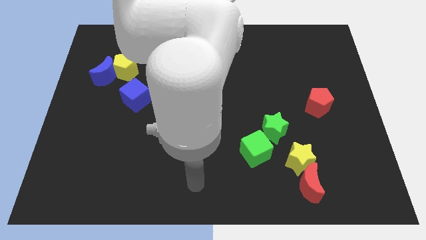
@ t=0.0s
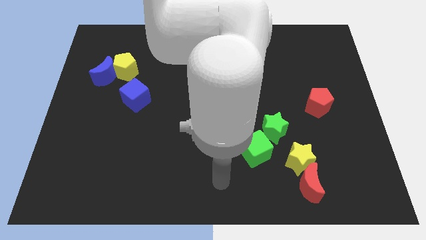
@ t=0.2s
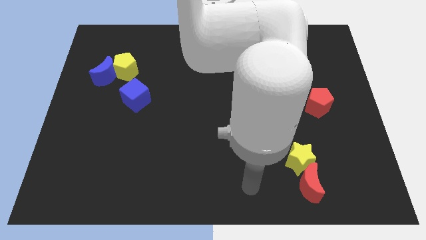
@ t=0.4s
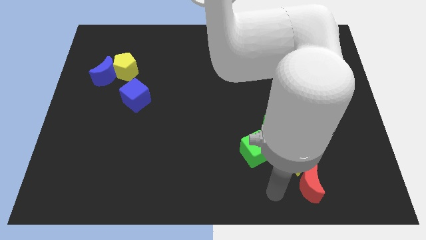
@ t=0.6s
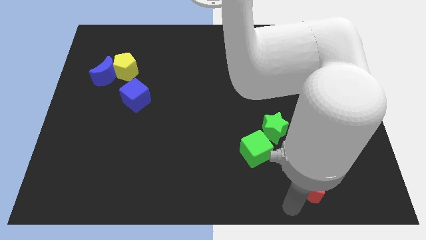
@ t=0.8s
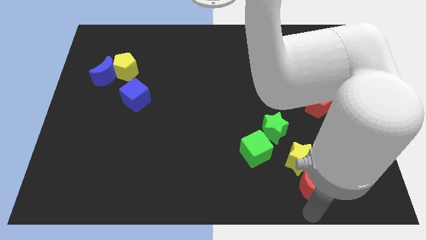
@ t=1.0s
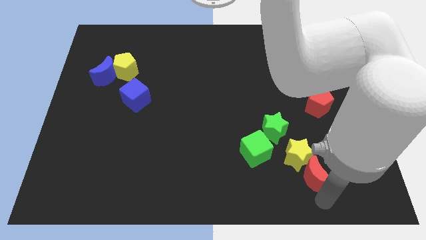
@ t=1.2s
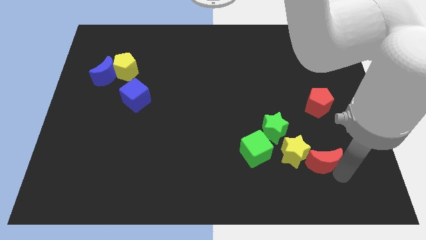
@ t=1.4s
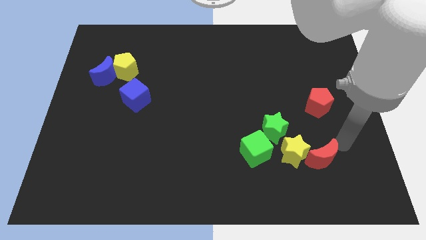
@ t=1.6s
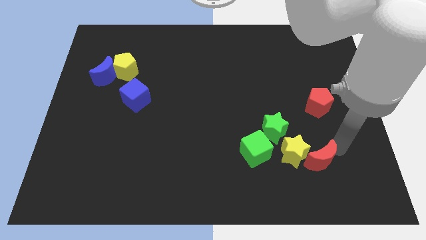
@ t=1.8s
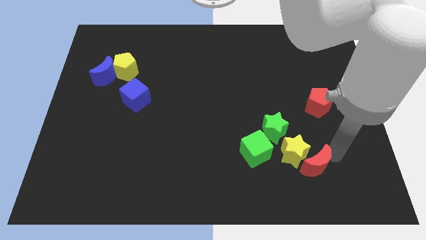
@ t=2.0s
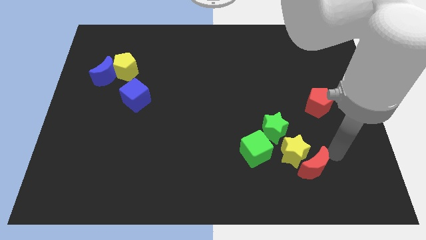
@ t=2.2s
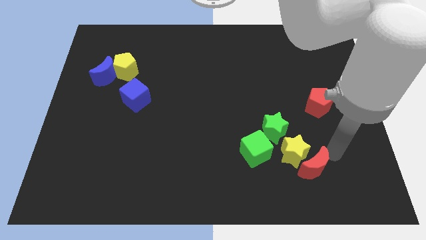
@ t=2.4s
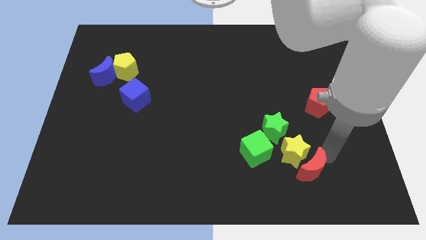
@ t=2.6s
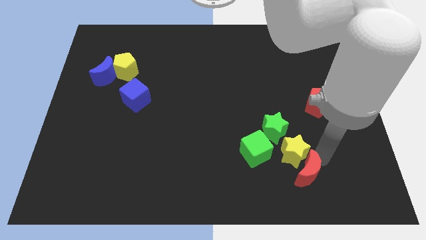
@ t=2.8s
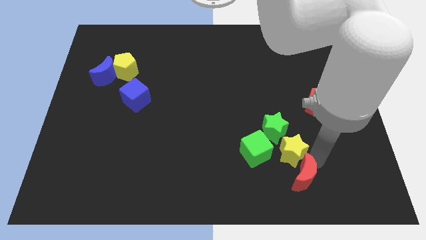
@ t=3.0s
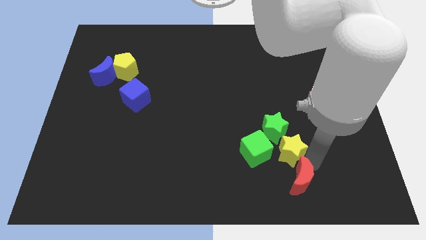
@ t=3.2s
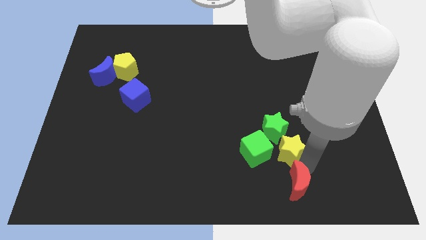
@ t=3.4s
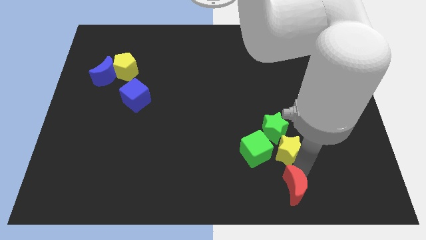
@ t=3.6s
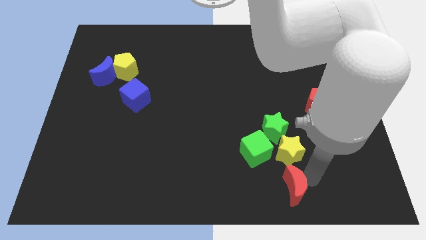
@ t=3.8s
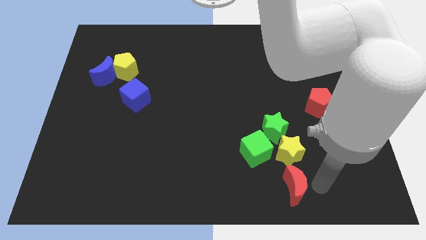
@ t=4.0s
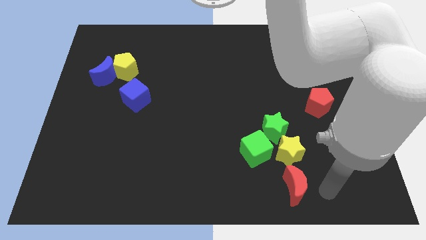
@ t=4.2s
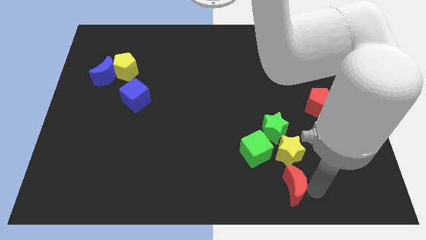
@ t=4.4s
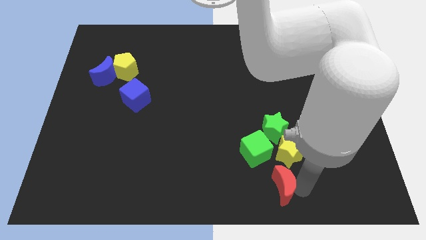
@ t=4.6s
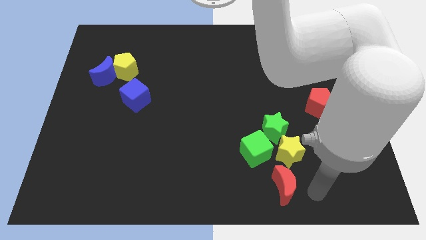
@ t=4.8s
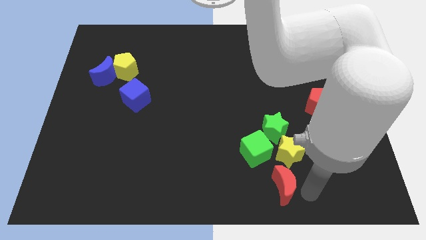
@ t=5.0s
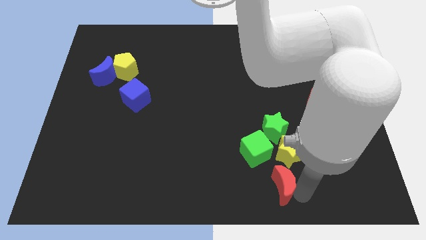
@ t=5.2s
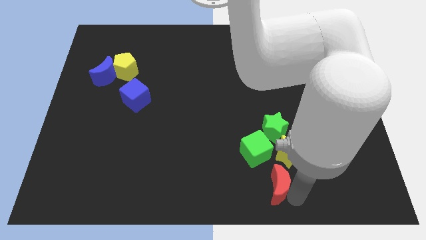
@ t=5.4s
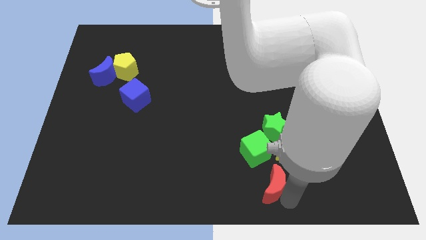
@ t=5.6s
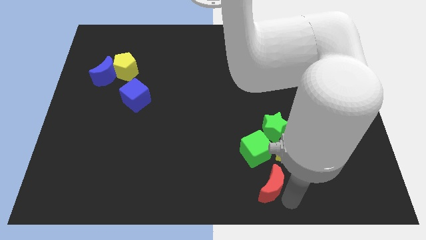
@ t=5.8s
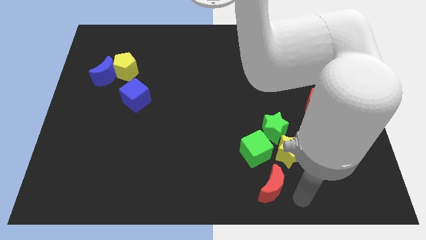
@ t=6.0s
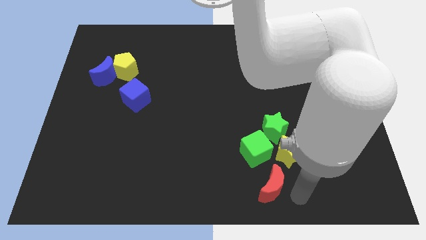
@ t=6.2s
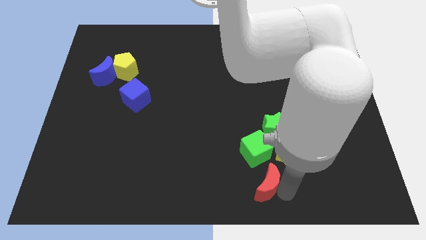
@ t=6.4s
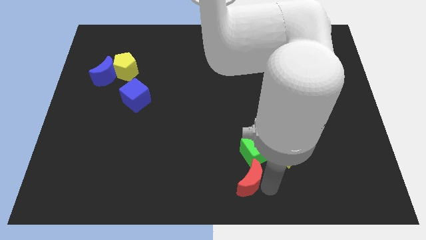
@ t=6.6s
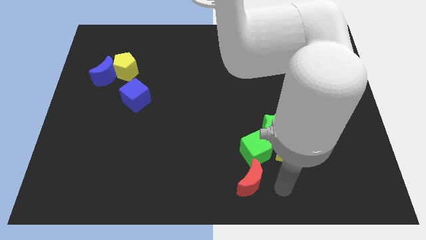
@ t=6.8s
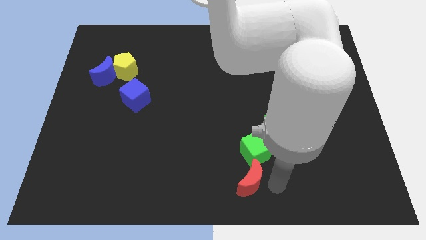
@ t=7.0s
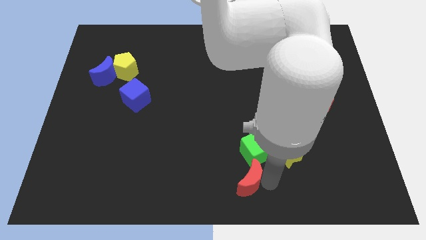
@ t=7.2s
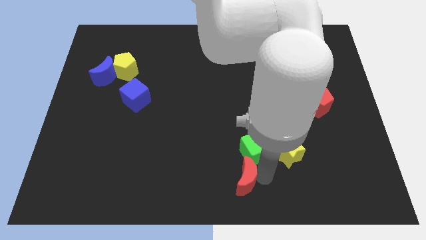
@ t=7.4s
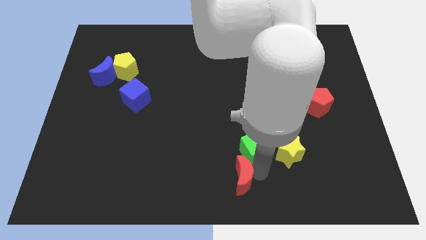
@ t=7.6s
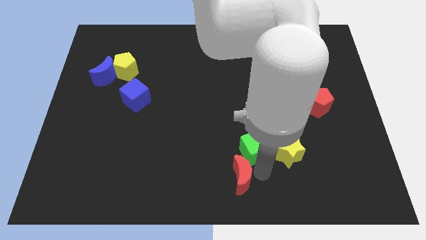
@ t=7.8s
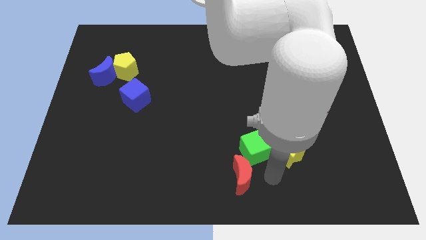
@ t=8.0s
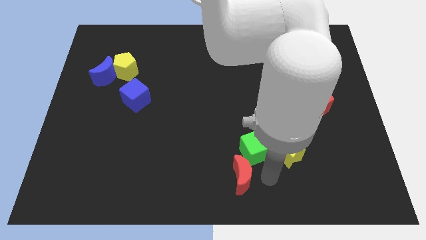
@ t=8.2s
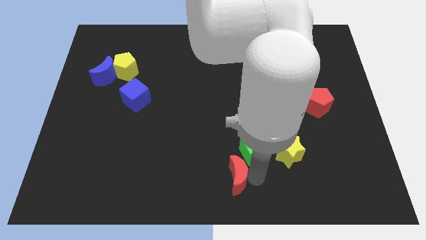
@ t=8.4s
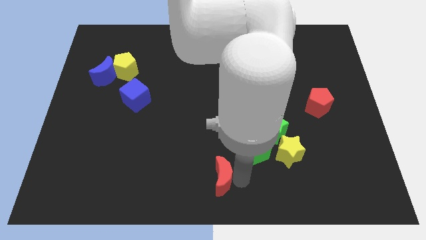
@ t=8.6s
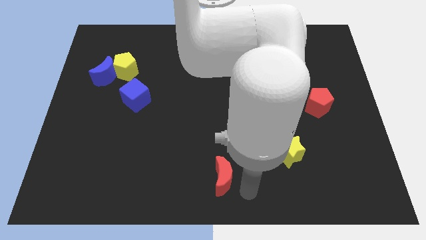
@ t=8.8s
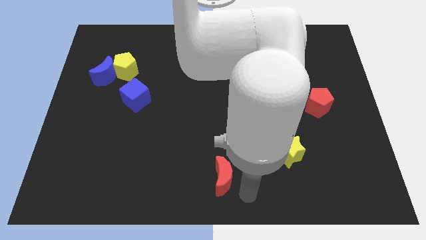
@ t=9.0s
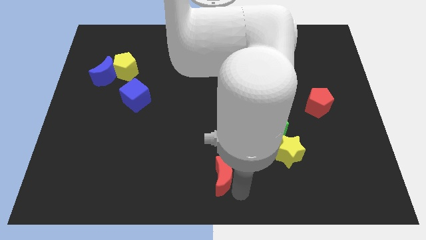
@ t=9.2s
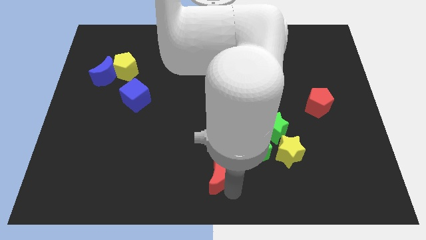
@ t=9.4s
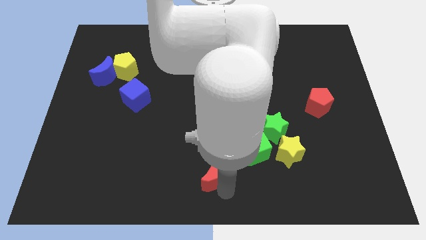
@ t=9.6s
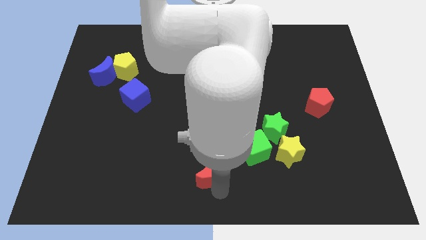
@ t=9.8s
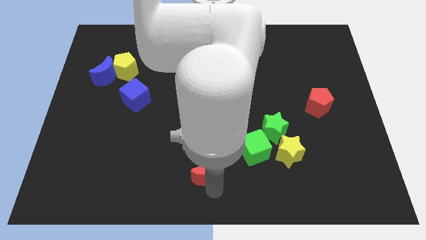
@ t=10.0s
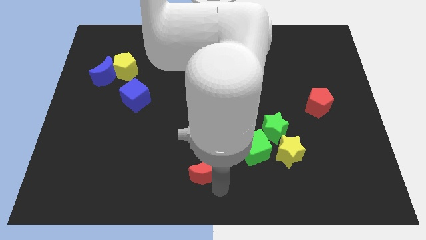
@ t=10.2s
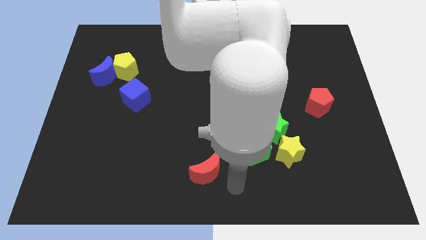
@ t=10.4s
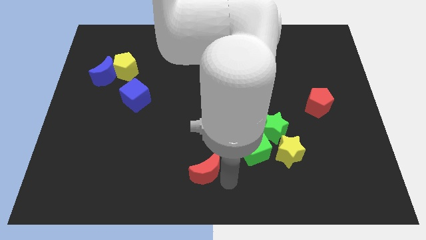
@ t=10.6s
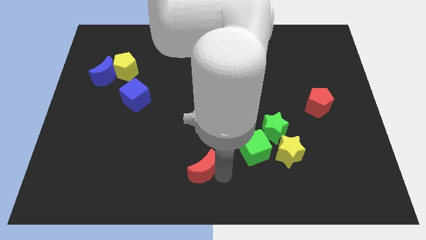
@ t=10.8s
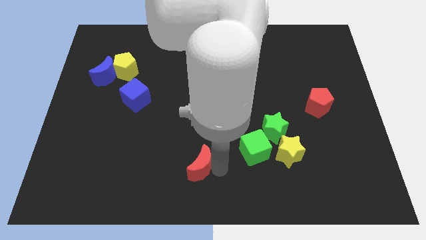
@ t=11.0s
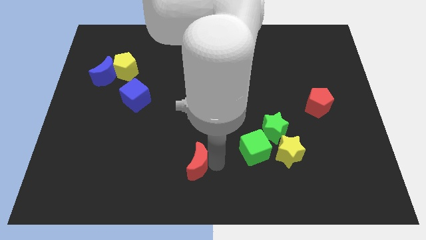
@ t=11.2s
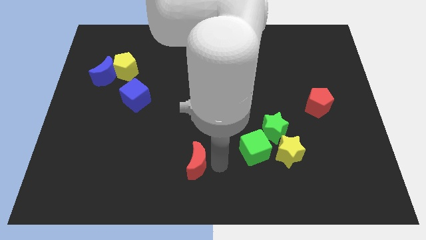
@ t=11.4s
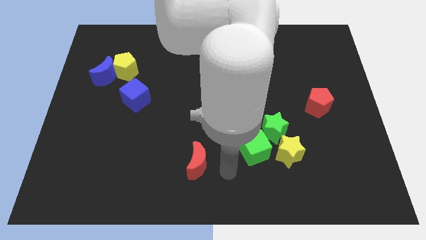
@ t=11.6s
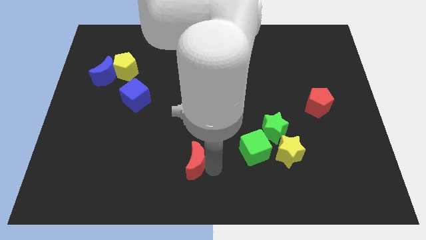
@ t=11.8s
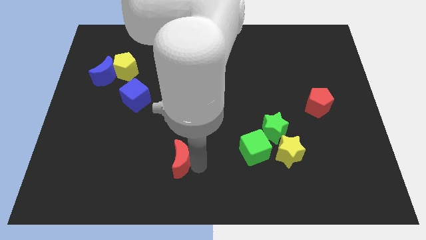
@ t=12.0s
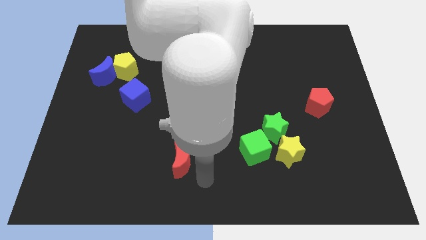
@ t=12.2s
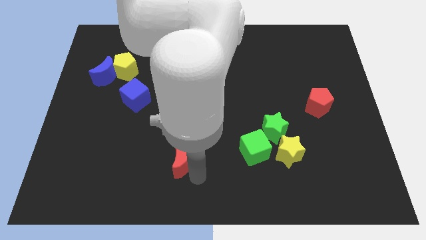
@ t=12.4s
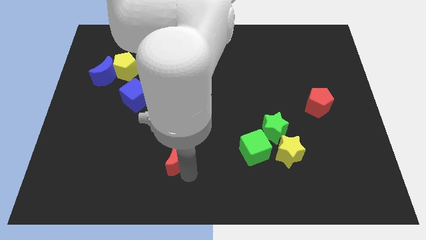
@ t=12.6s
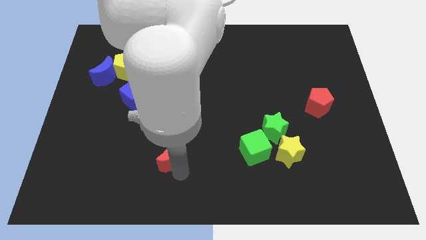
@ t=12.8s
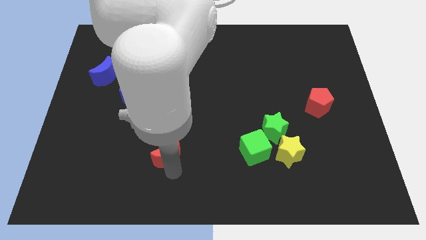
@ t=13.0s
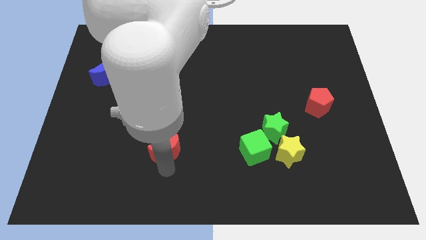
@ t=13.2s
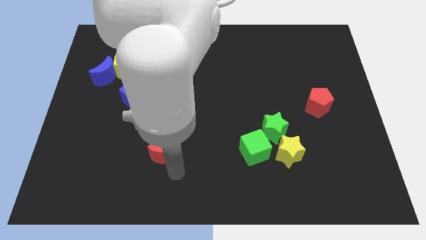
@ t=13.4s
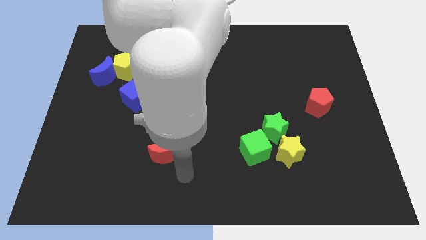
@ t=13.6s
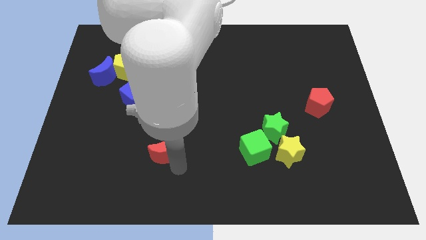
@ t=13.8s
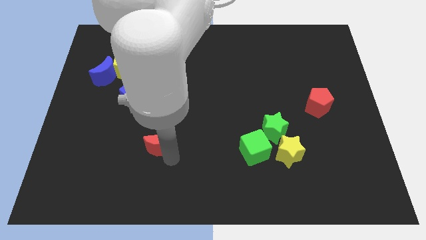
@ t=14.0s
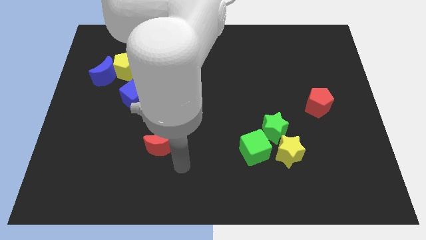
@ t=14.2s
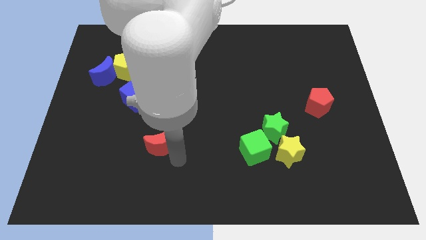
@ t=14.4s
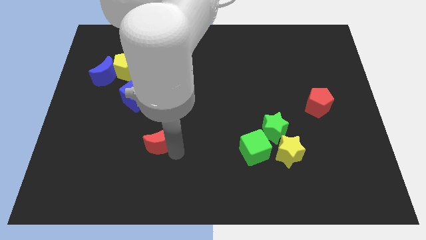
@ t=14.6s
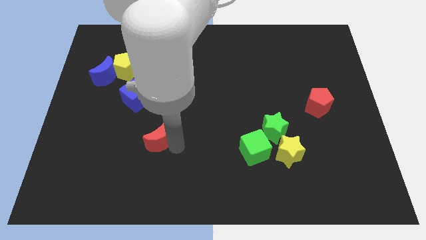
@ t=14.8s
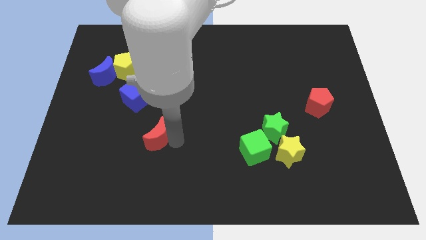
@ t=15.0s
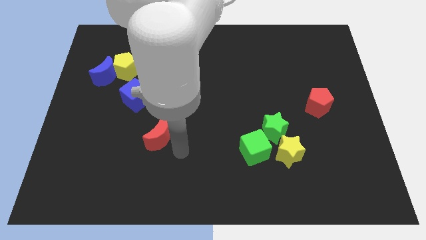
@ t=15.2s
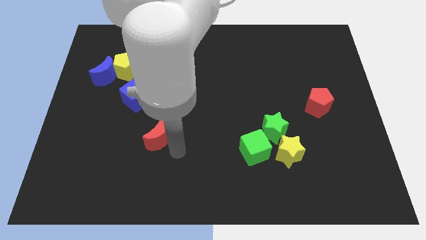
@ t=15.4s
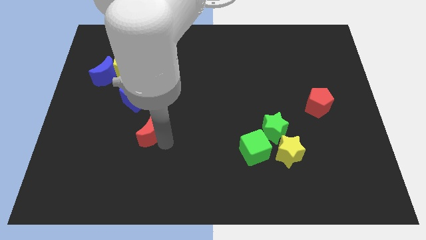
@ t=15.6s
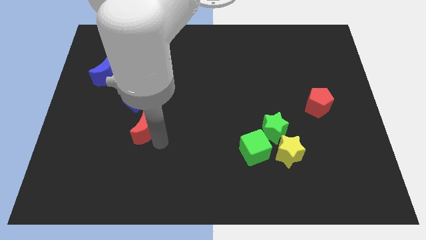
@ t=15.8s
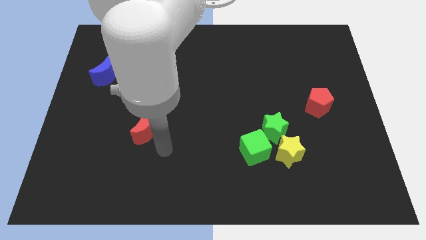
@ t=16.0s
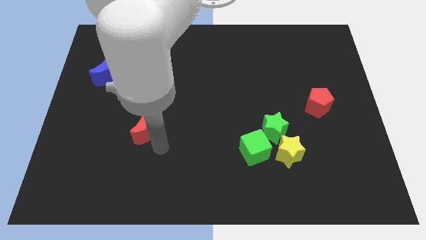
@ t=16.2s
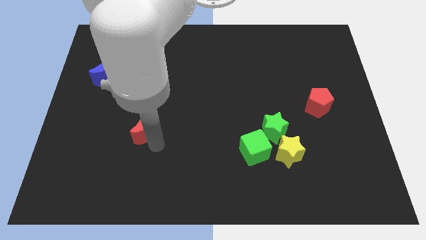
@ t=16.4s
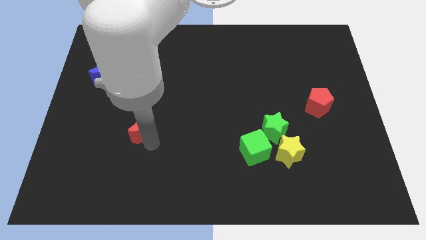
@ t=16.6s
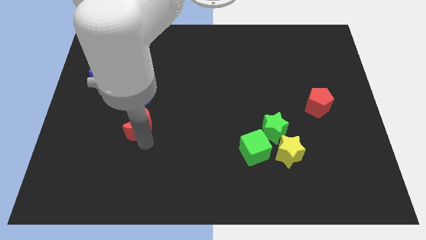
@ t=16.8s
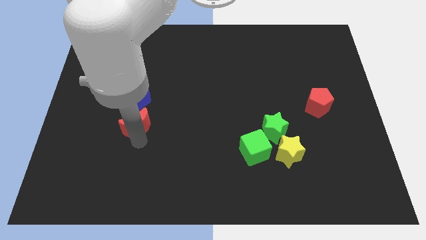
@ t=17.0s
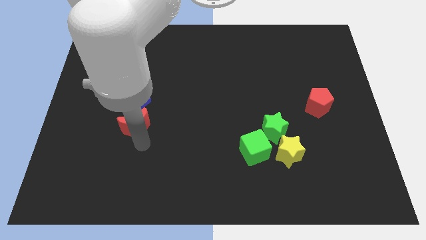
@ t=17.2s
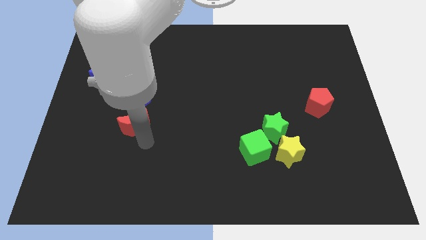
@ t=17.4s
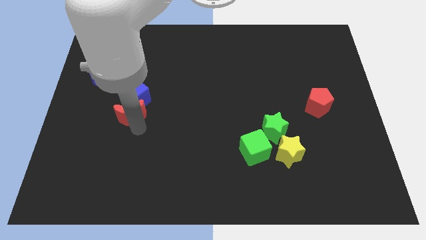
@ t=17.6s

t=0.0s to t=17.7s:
slide the red moon to the bottom side of the yellow pentagon
